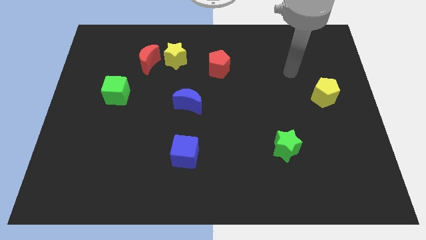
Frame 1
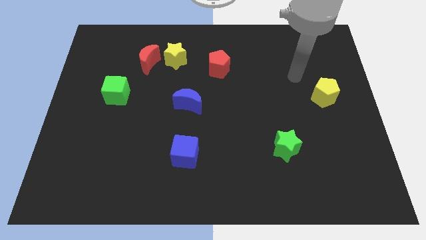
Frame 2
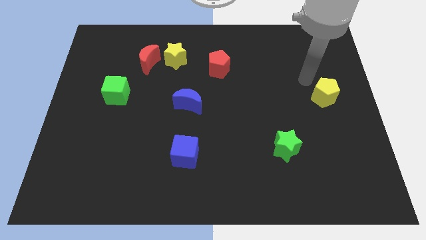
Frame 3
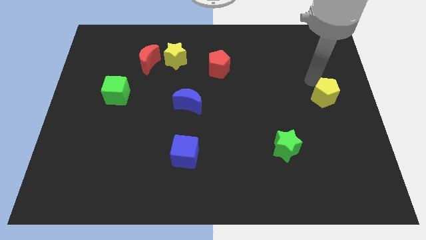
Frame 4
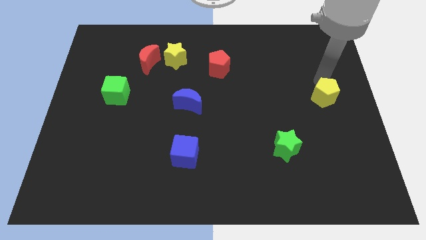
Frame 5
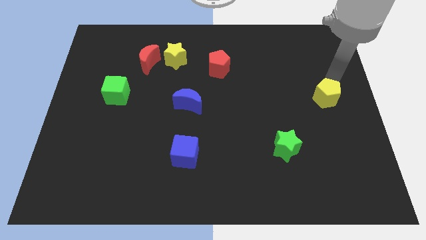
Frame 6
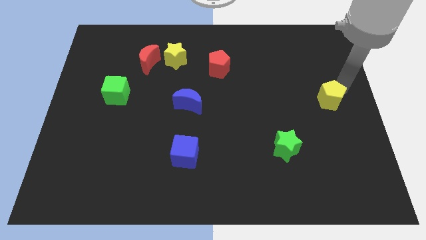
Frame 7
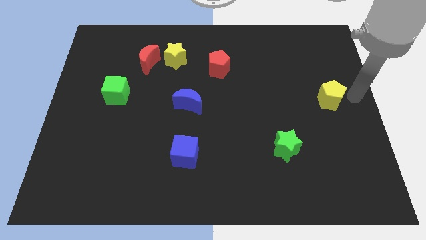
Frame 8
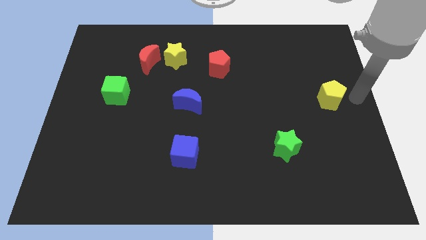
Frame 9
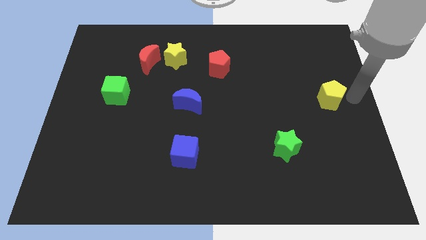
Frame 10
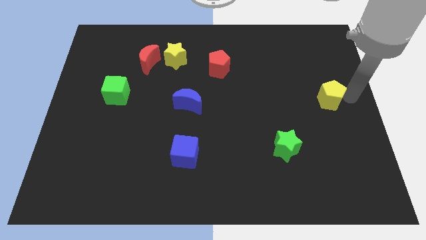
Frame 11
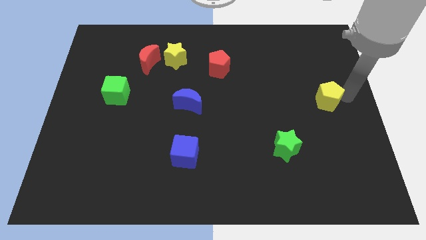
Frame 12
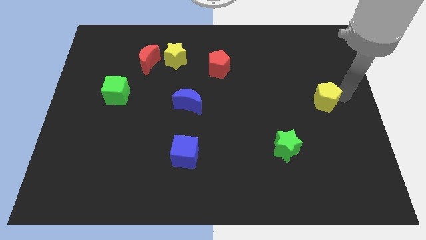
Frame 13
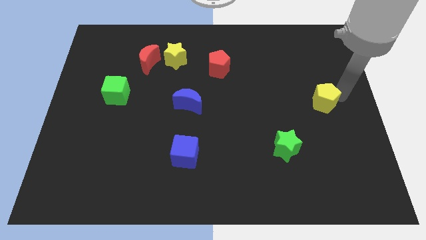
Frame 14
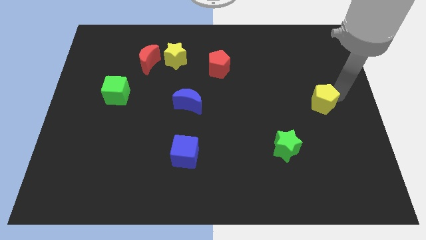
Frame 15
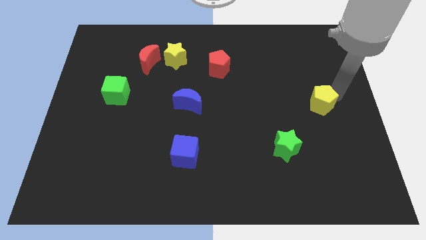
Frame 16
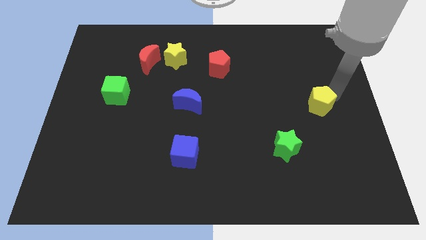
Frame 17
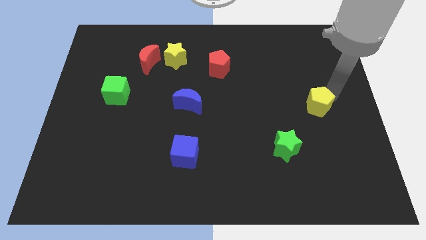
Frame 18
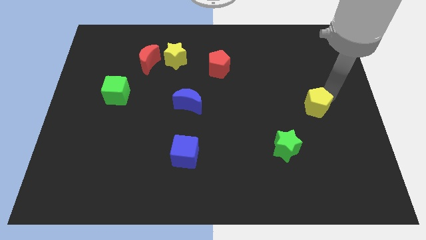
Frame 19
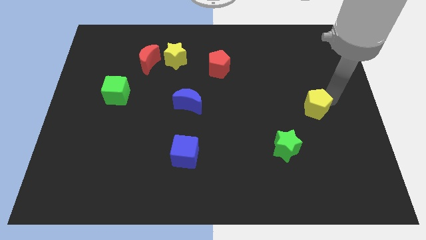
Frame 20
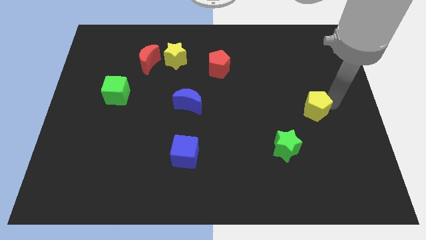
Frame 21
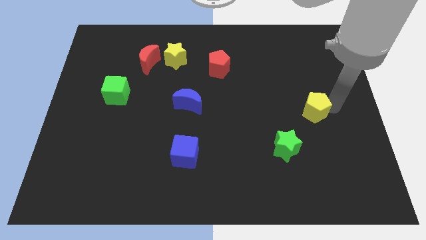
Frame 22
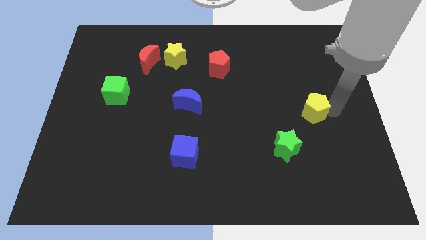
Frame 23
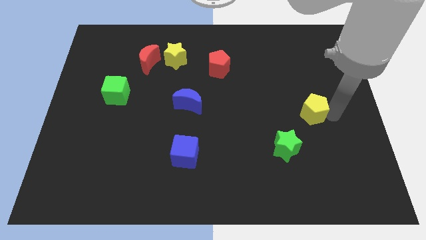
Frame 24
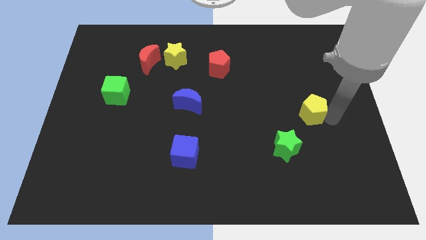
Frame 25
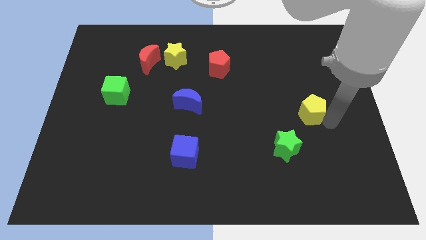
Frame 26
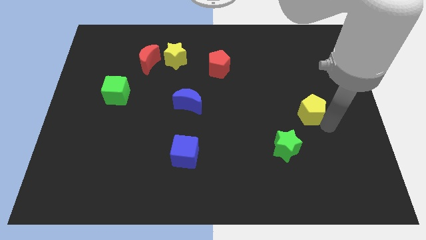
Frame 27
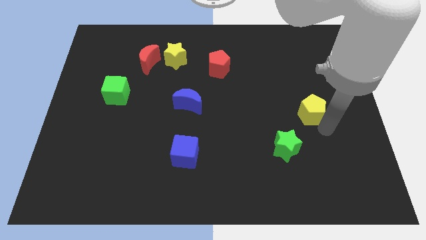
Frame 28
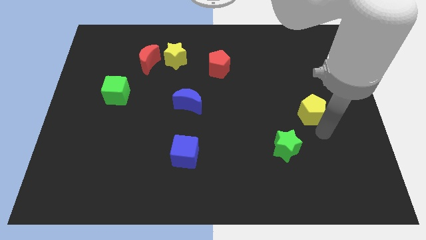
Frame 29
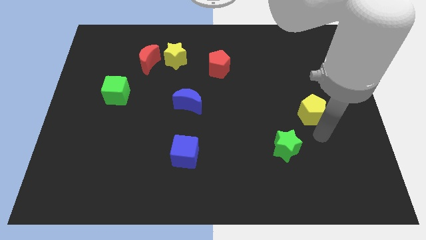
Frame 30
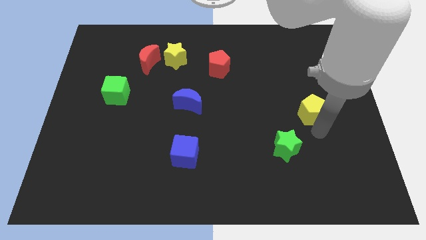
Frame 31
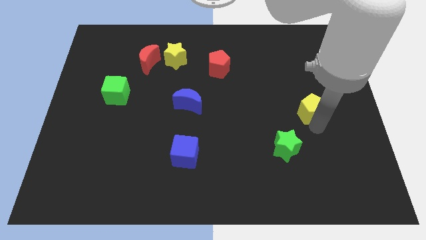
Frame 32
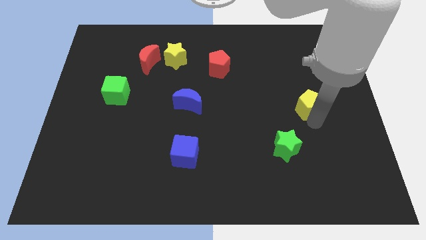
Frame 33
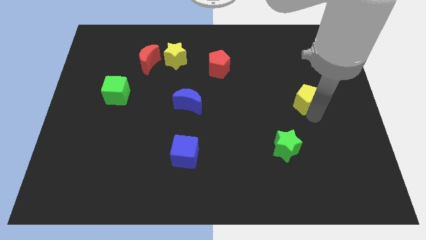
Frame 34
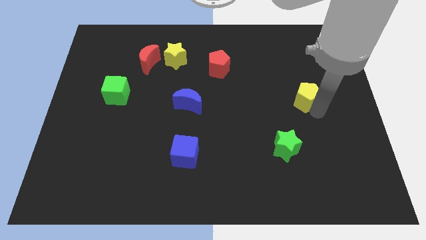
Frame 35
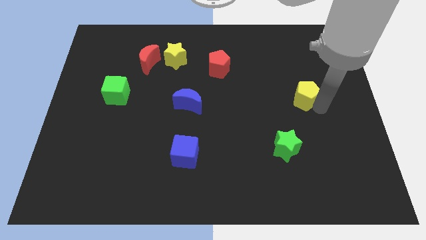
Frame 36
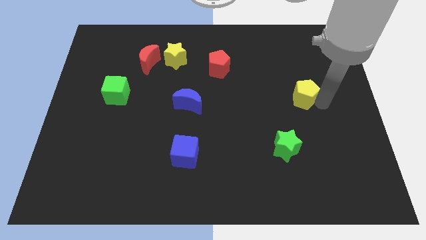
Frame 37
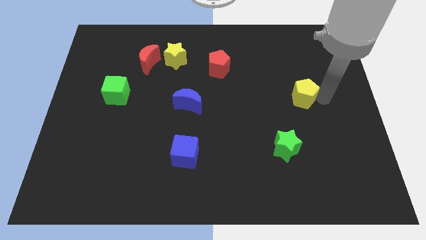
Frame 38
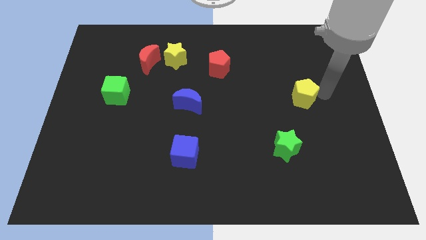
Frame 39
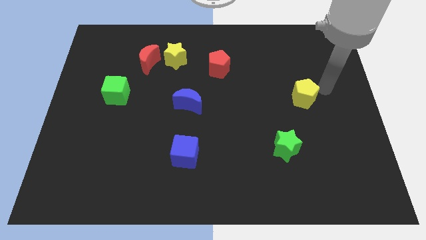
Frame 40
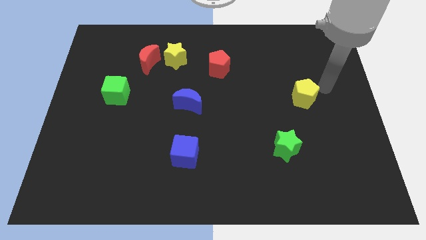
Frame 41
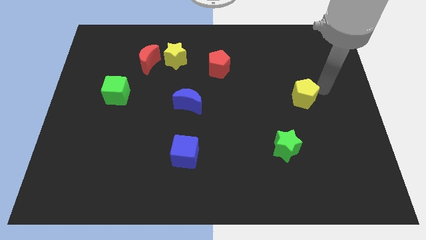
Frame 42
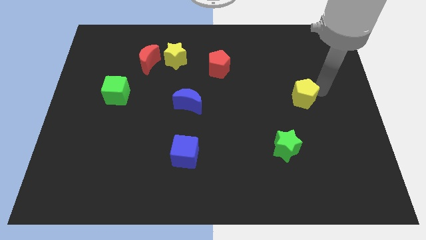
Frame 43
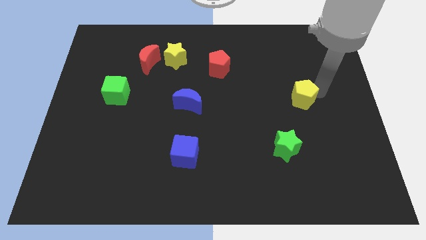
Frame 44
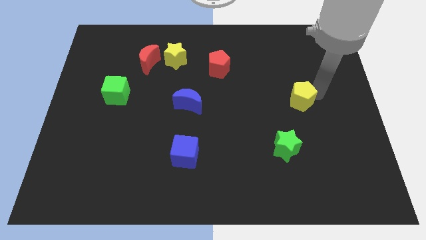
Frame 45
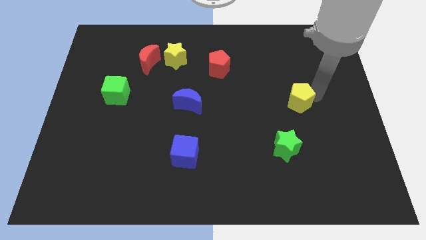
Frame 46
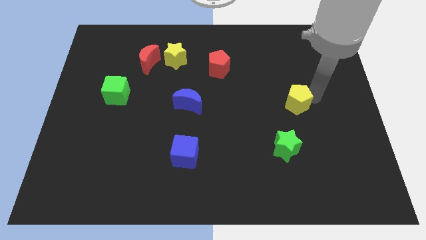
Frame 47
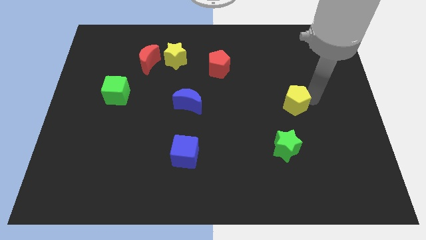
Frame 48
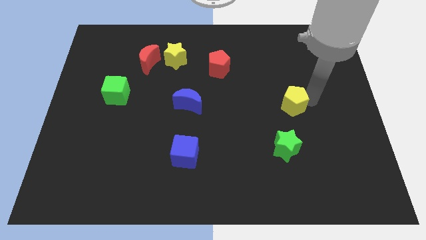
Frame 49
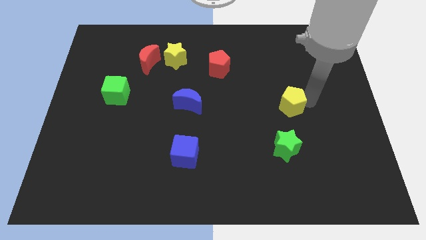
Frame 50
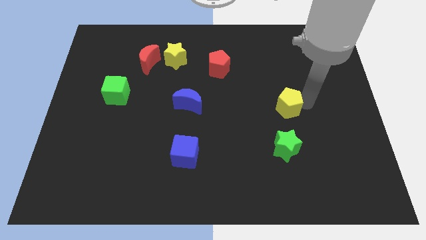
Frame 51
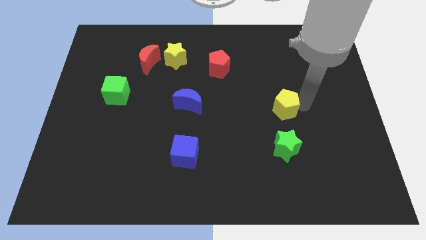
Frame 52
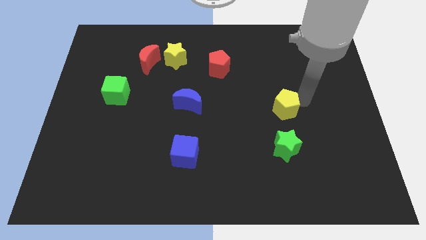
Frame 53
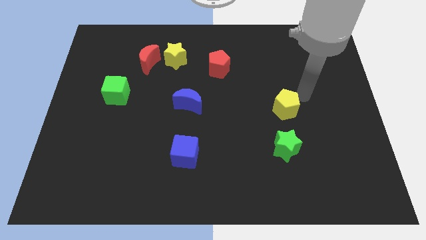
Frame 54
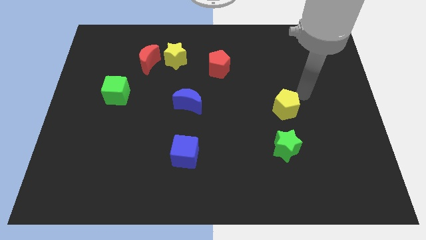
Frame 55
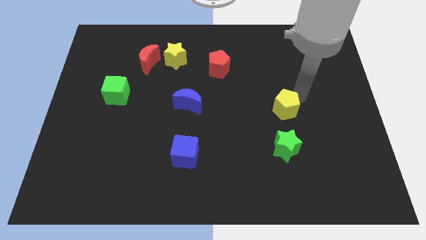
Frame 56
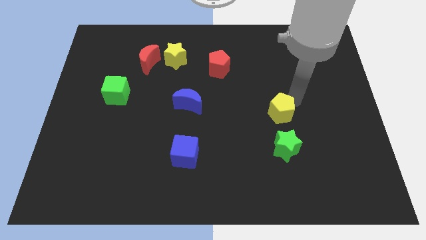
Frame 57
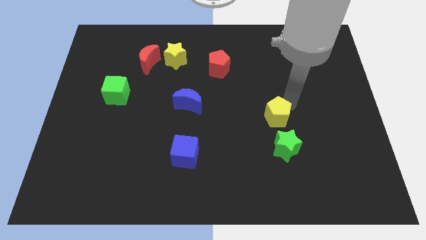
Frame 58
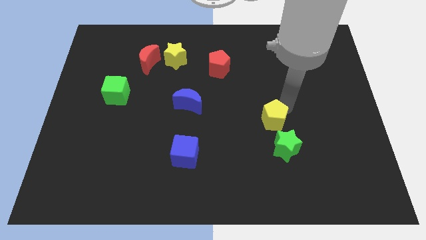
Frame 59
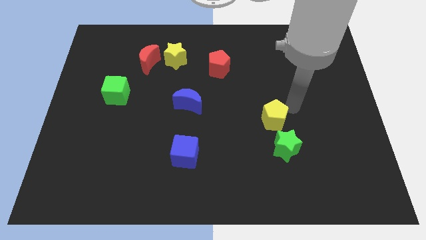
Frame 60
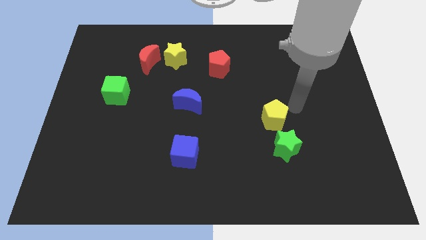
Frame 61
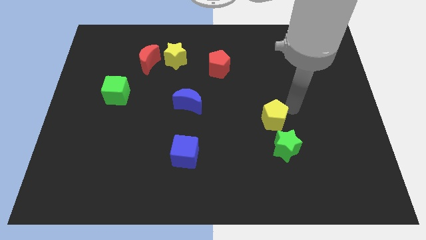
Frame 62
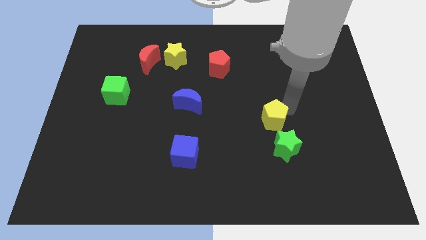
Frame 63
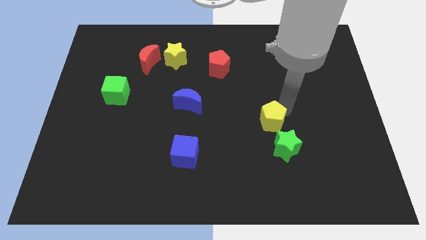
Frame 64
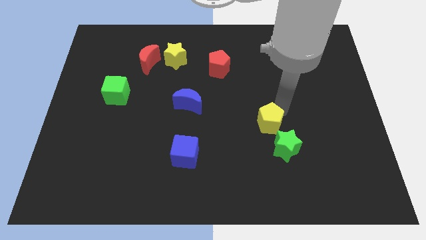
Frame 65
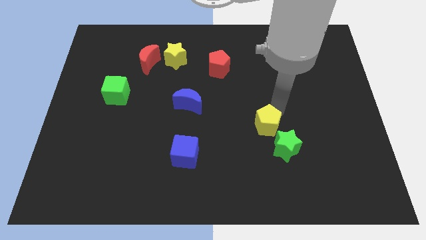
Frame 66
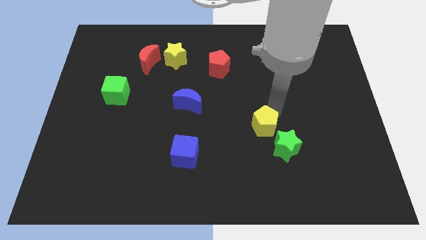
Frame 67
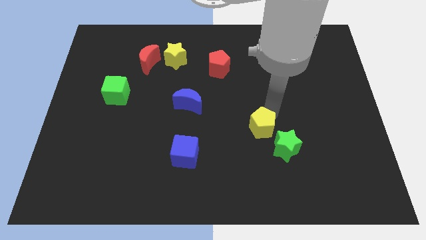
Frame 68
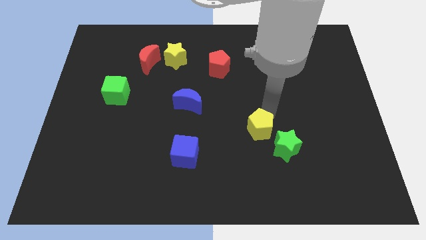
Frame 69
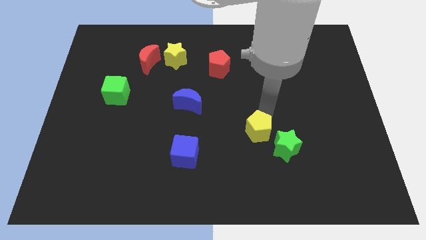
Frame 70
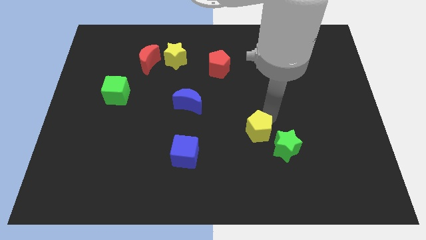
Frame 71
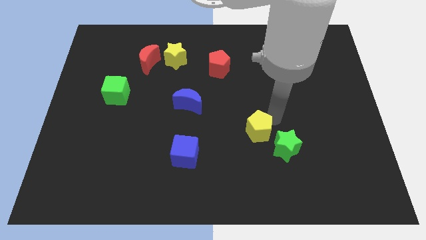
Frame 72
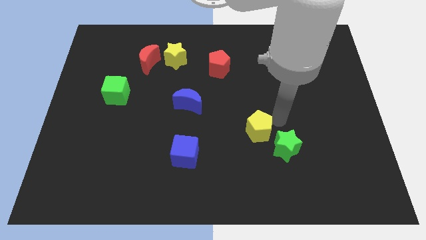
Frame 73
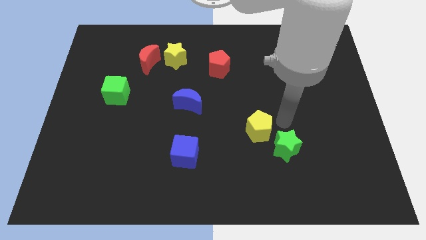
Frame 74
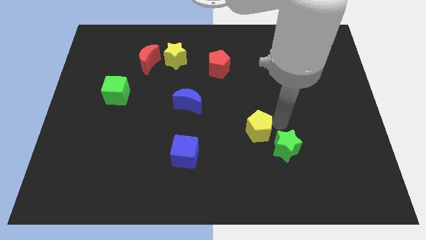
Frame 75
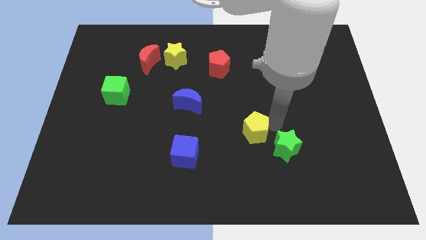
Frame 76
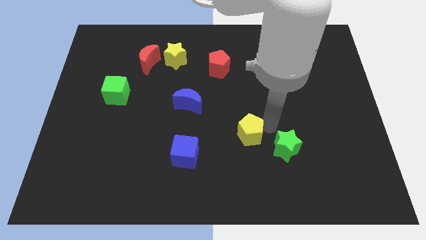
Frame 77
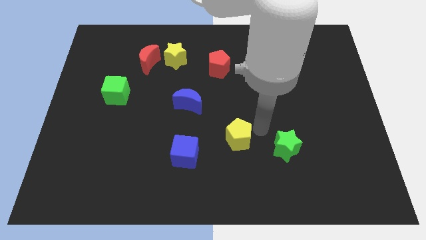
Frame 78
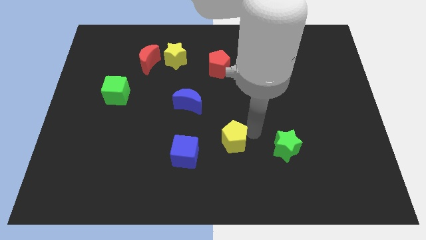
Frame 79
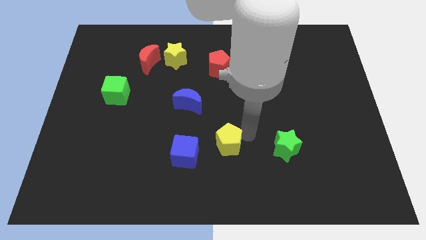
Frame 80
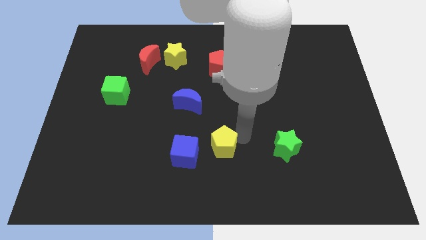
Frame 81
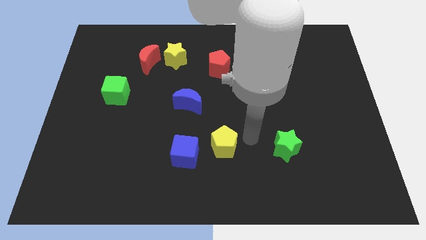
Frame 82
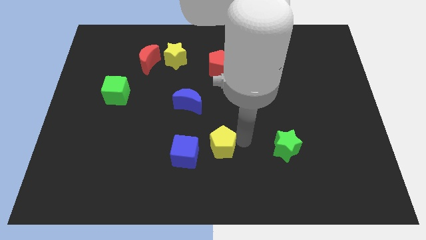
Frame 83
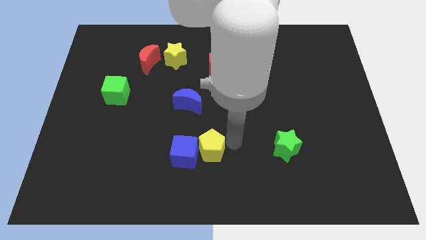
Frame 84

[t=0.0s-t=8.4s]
slide the yellow pentagon next to the blue cube
